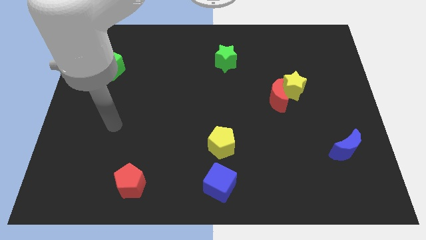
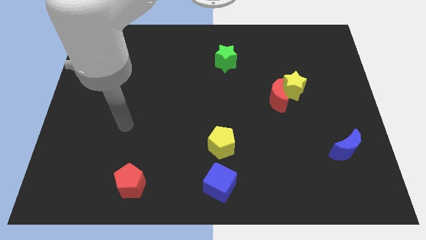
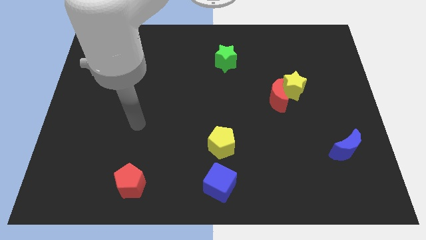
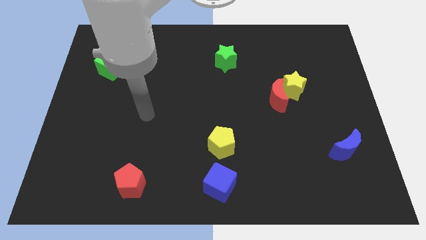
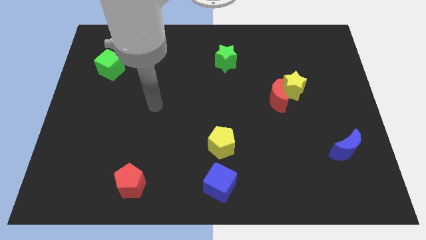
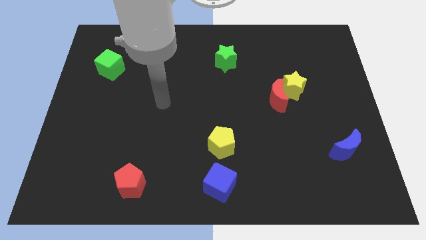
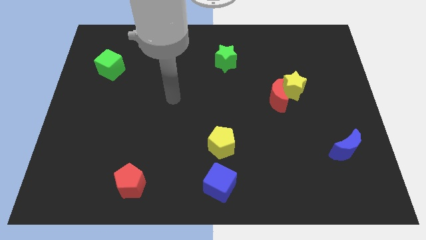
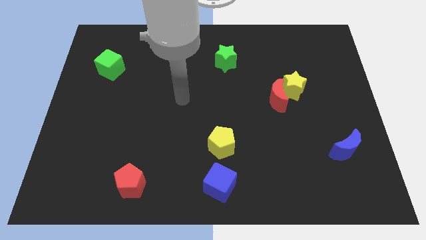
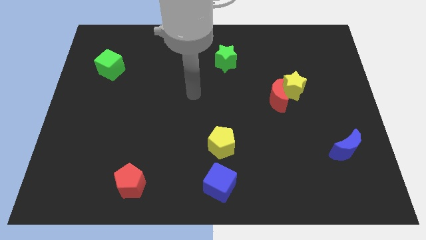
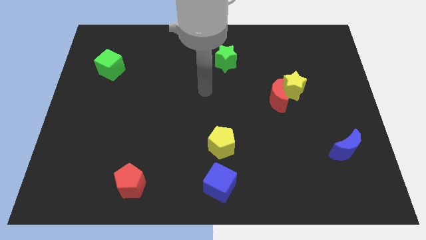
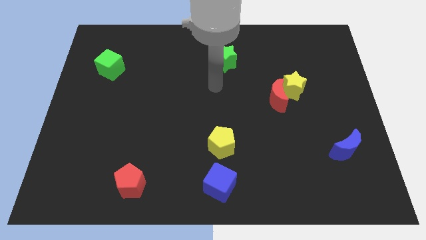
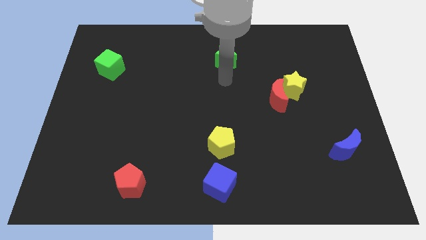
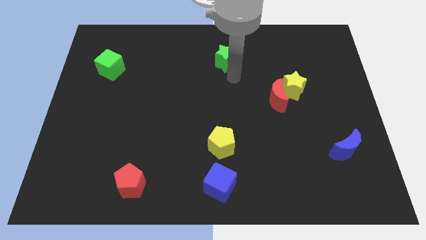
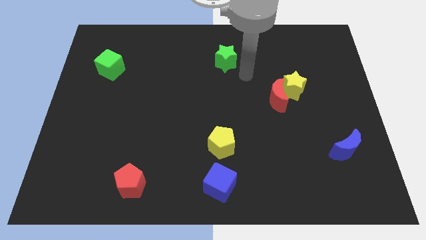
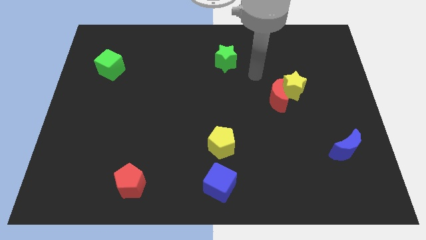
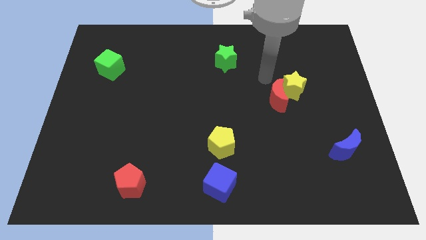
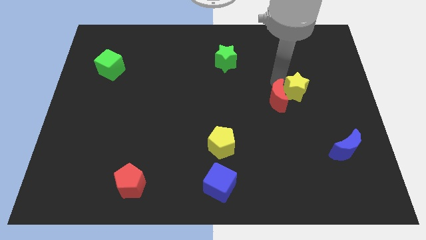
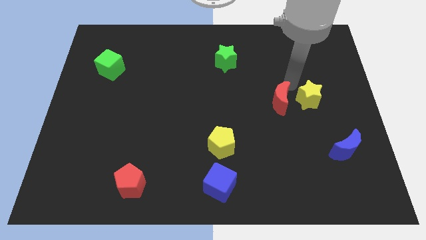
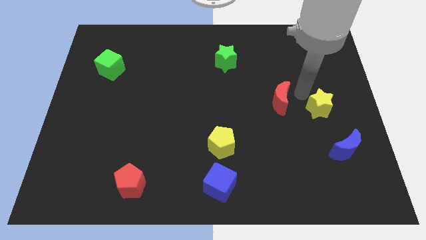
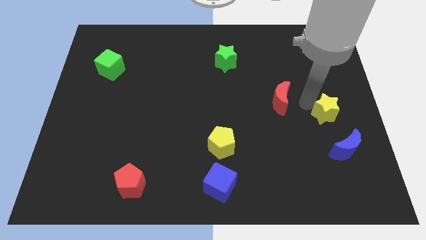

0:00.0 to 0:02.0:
move the red moon away from the yellow star

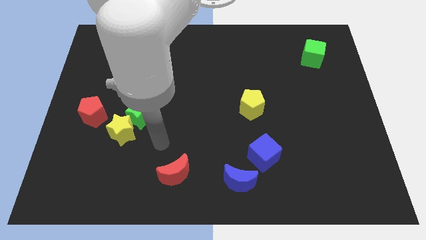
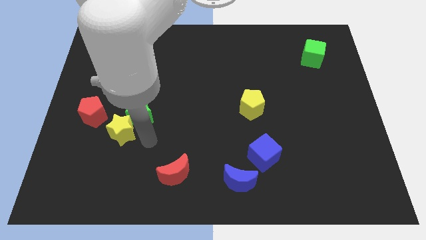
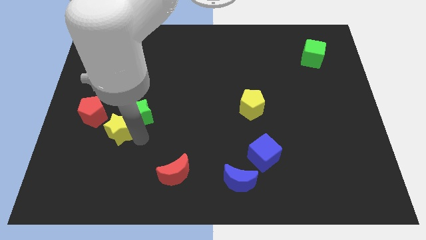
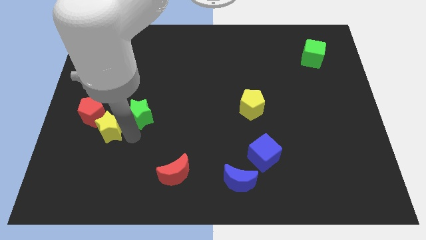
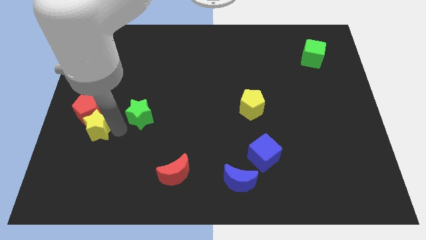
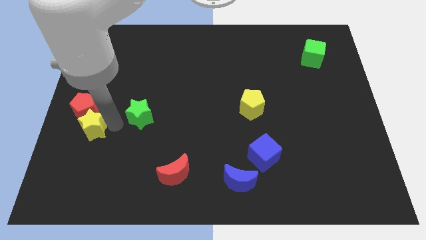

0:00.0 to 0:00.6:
move the green star away from the yellow star

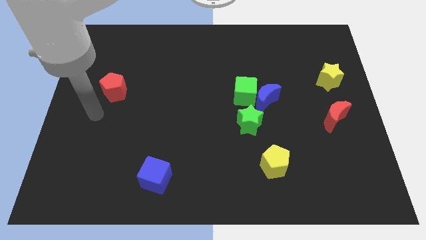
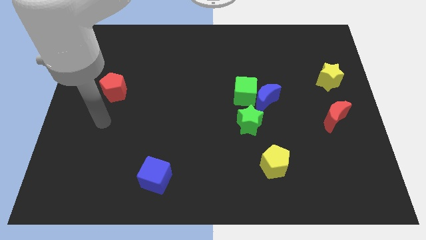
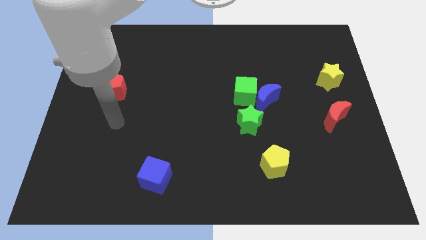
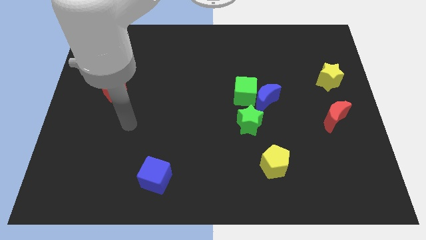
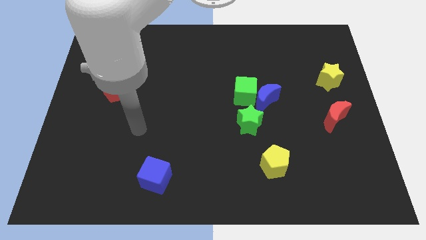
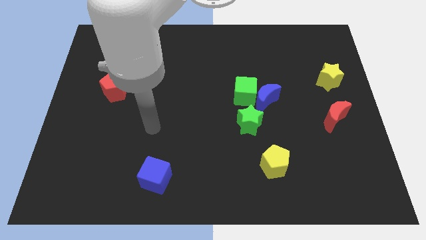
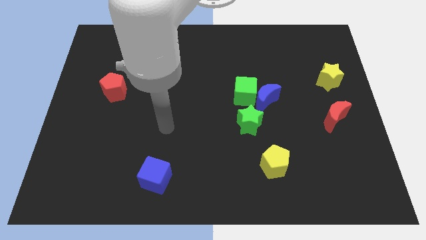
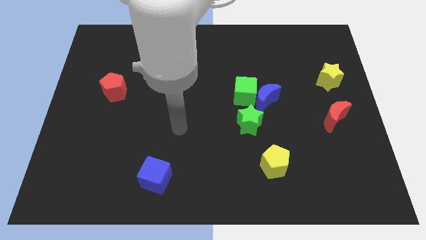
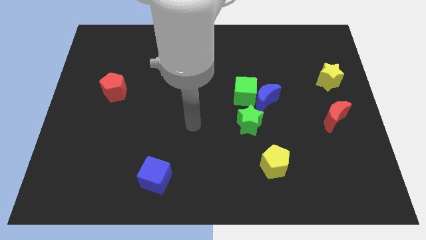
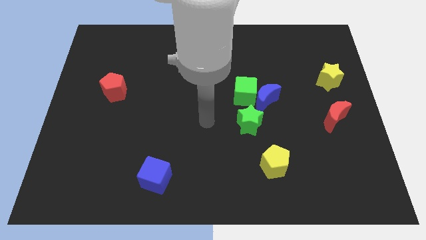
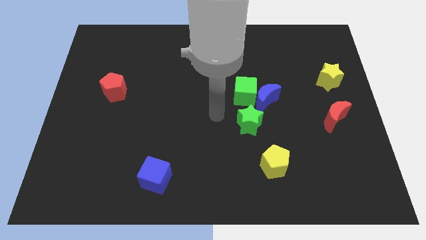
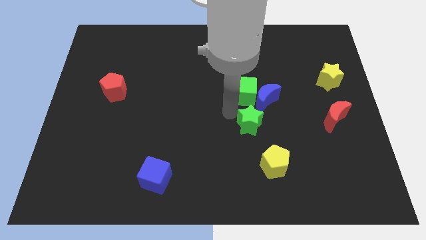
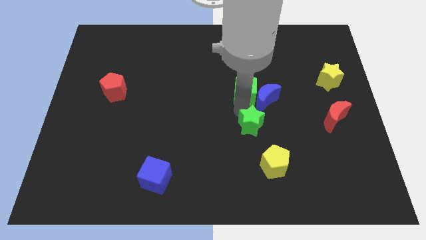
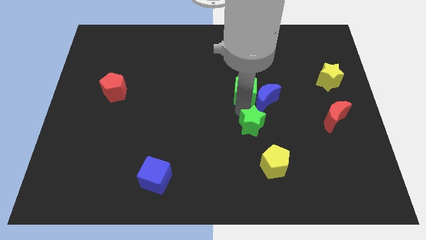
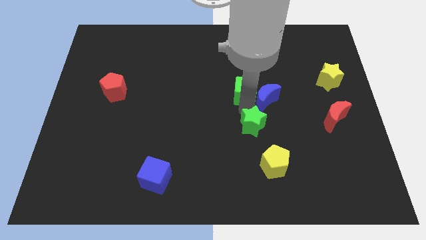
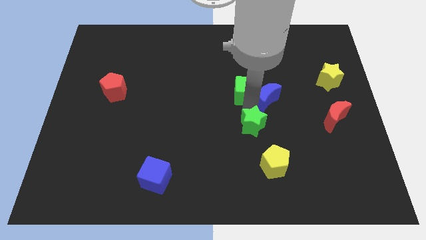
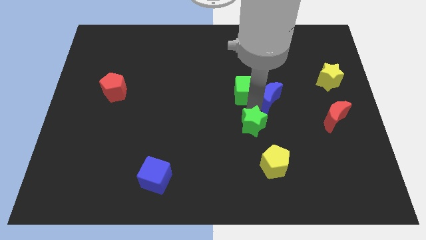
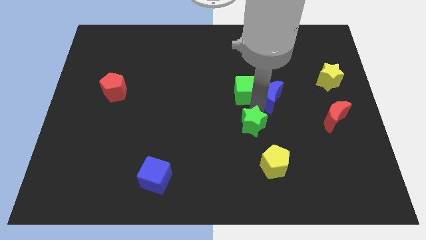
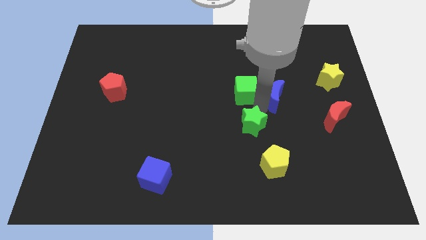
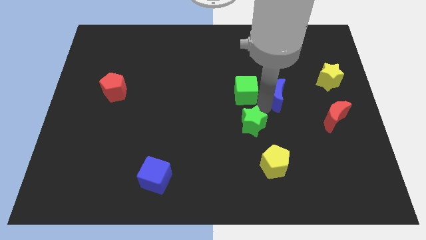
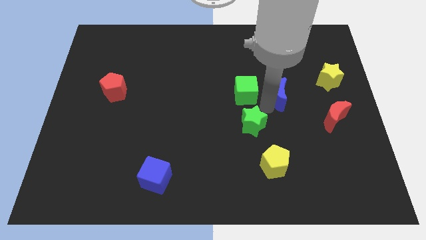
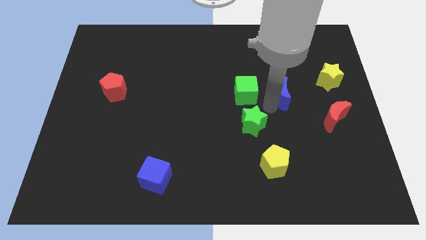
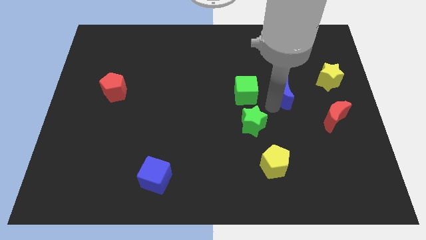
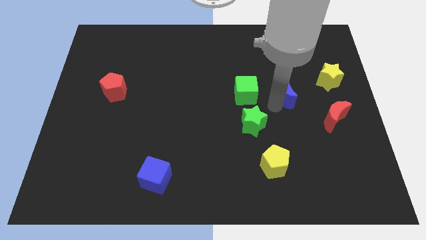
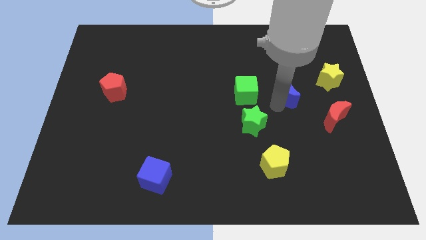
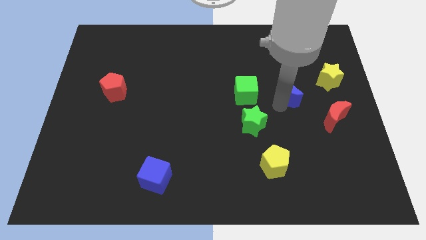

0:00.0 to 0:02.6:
separate the blue moon from the green cube and green star

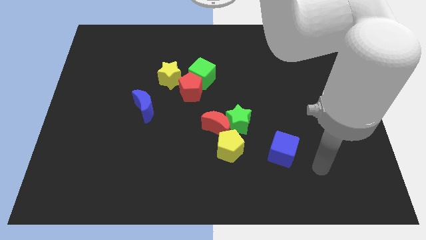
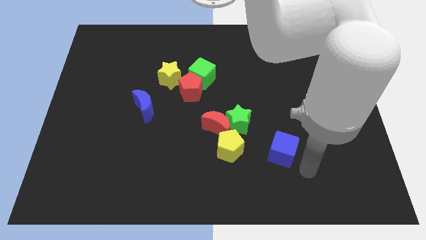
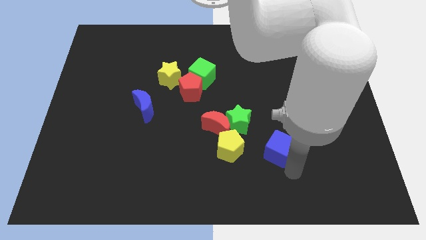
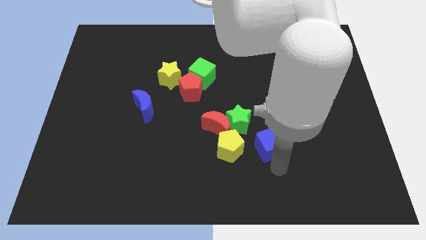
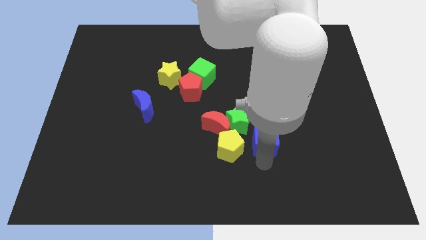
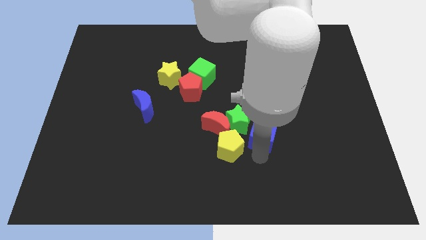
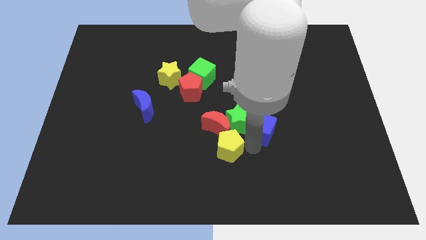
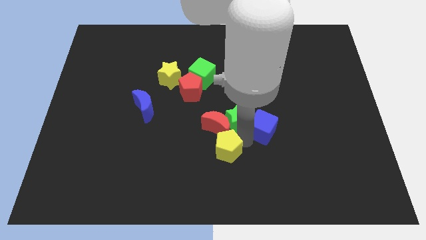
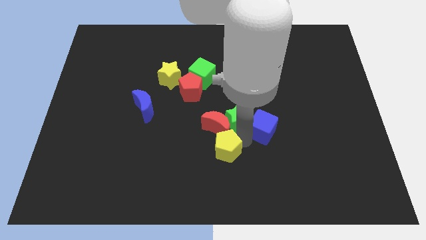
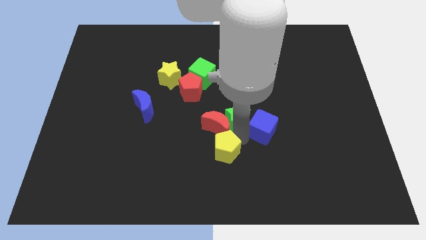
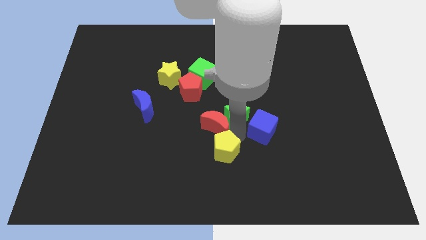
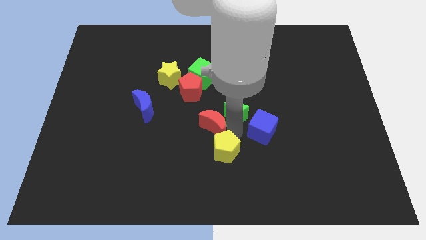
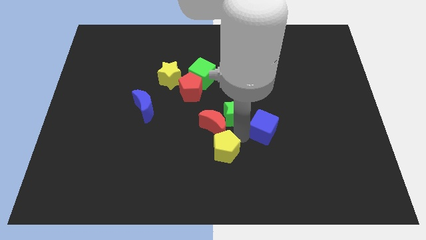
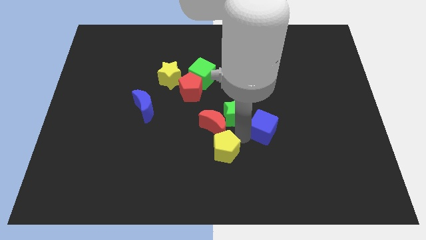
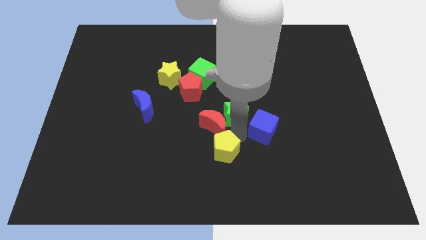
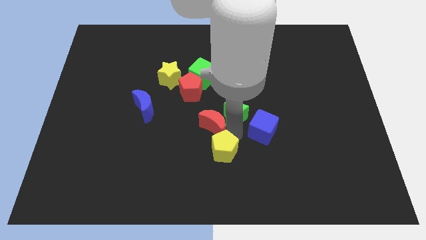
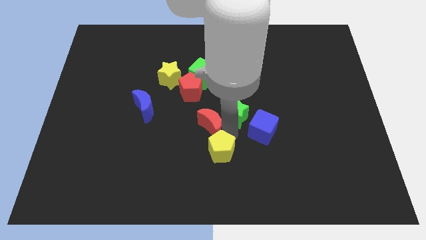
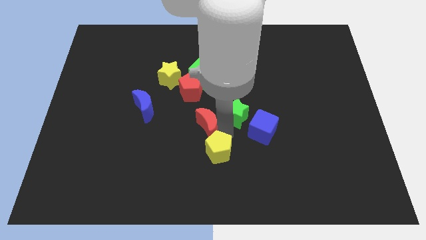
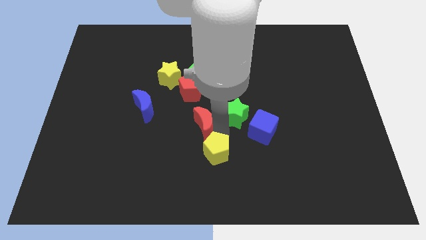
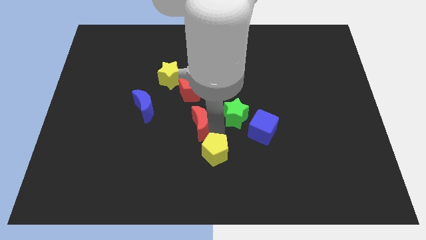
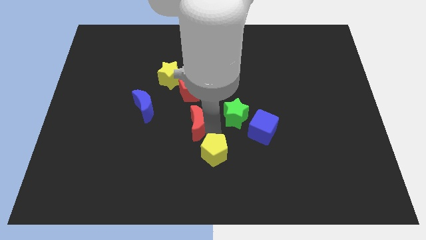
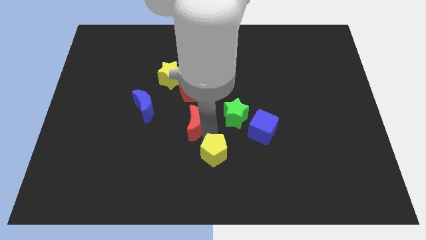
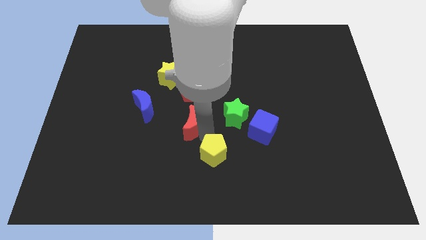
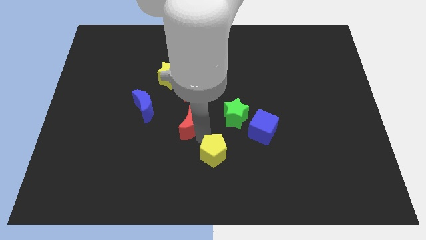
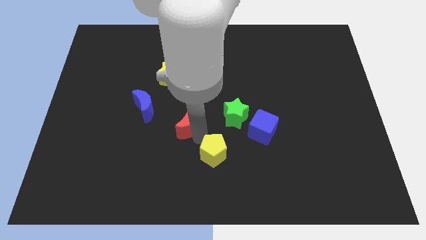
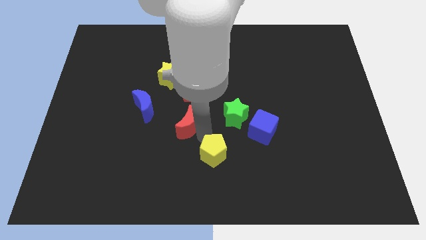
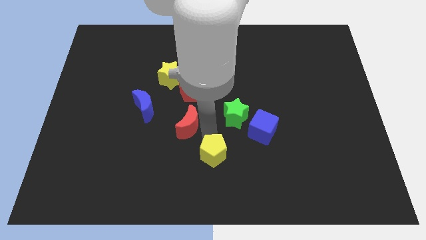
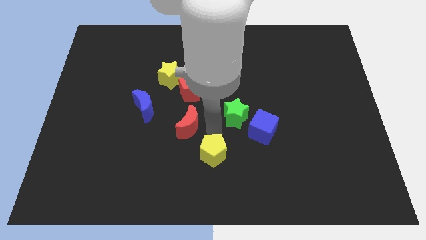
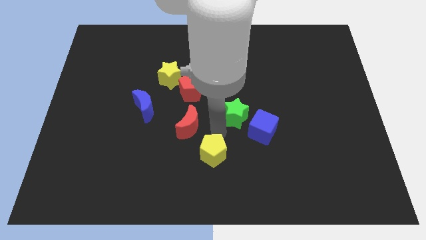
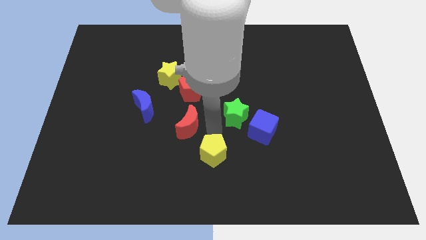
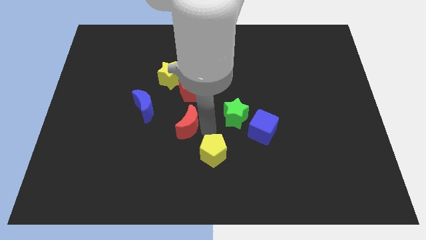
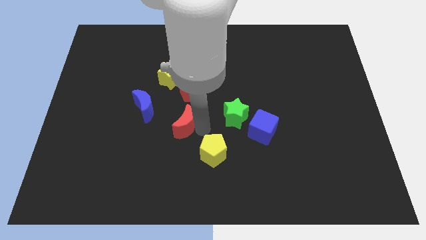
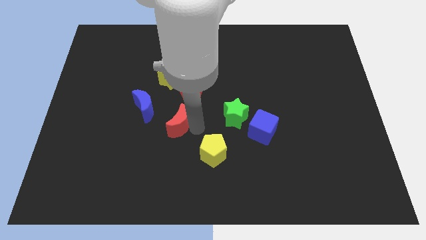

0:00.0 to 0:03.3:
move the red moon away from the green star and yellow pentagon

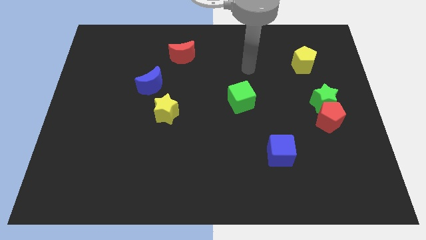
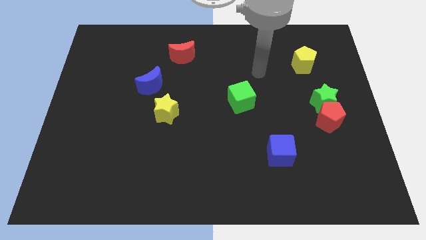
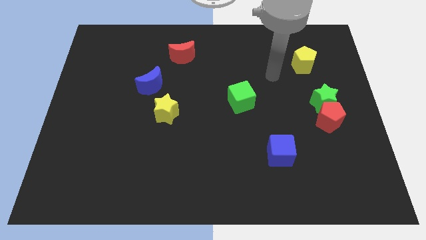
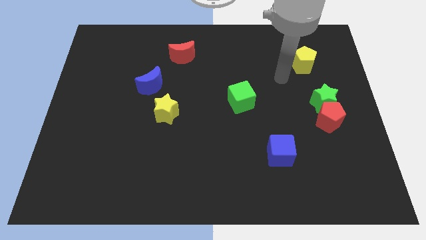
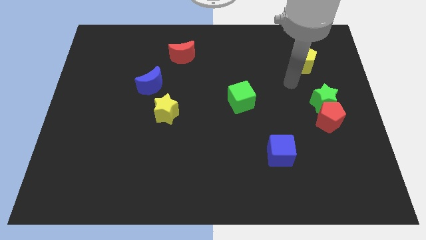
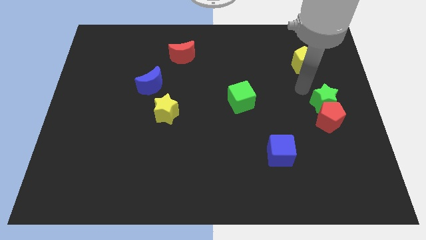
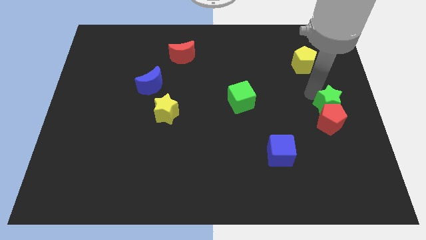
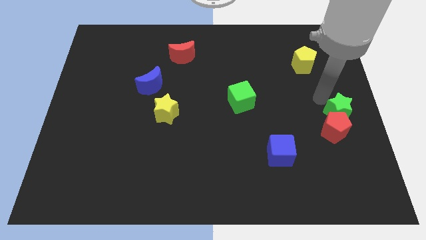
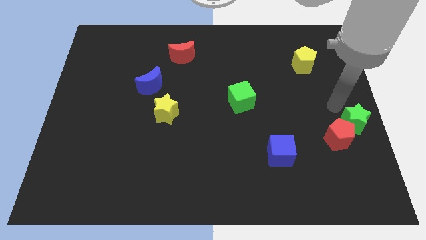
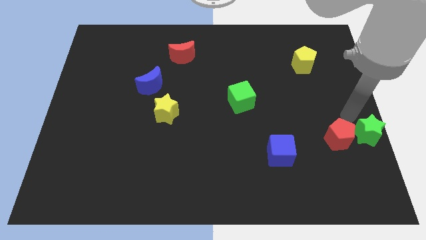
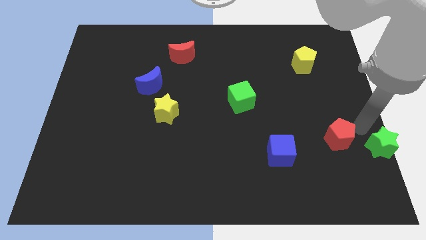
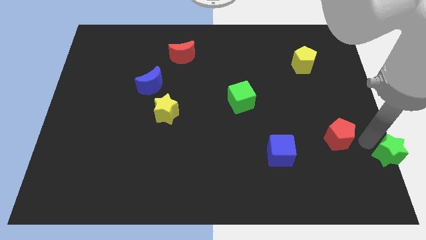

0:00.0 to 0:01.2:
separate the red pentagon from the green star
